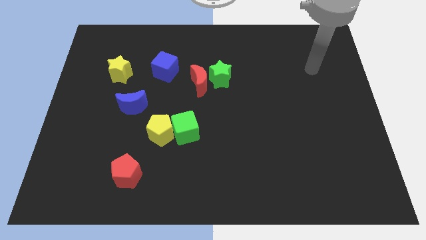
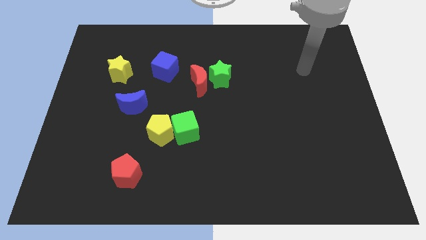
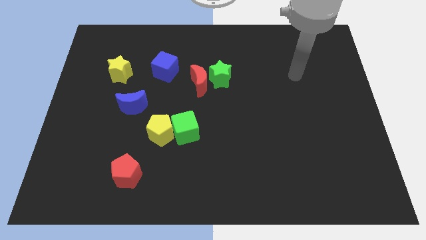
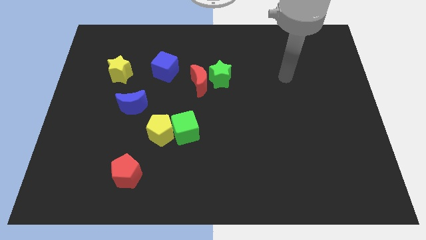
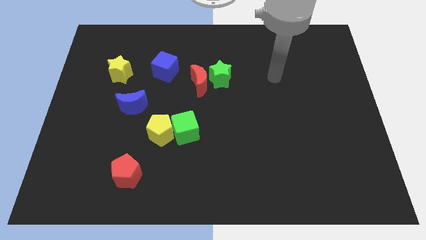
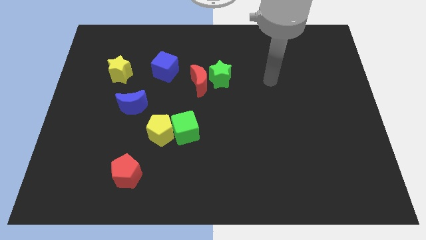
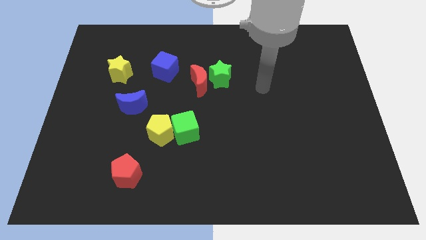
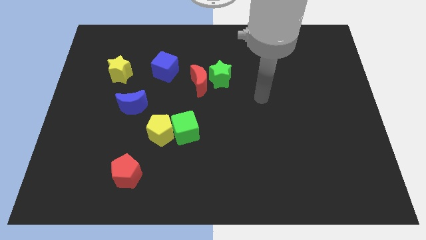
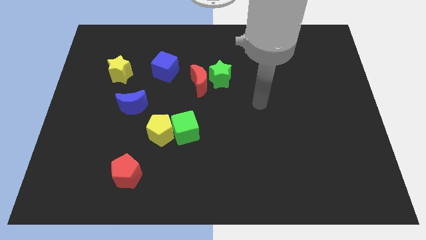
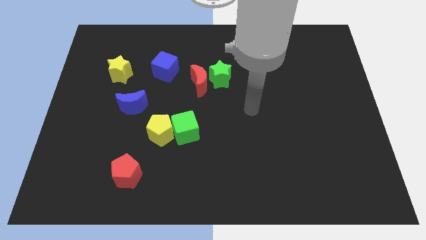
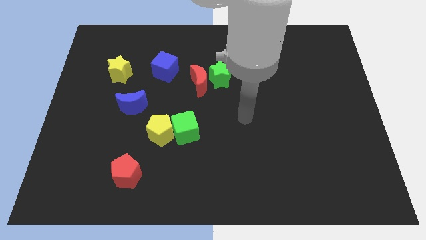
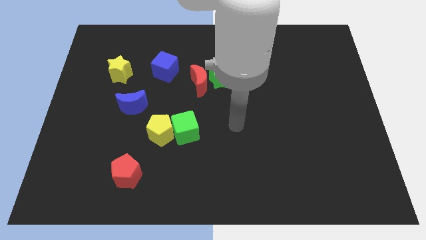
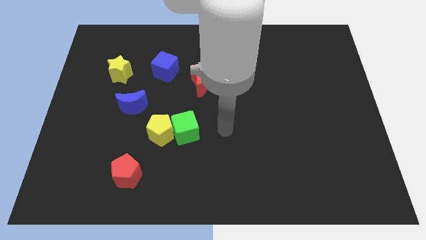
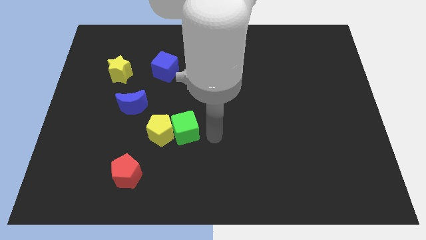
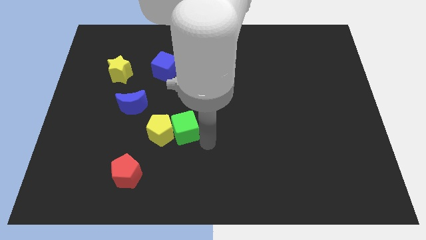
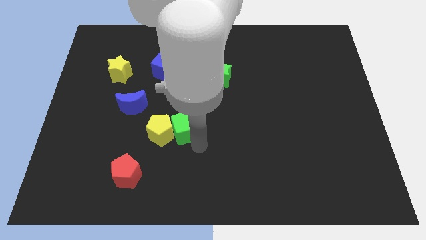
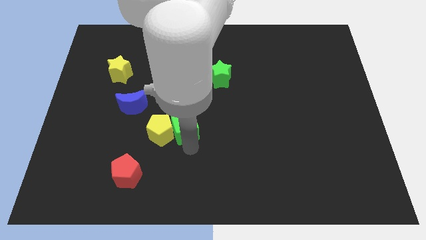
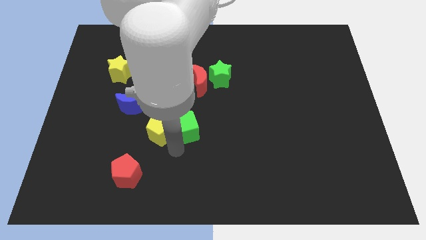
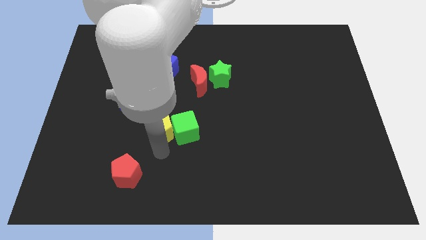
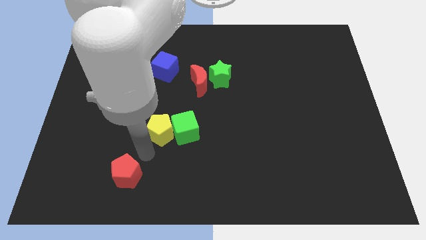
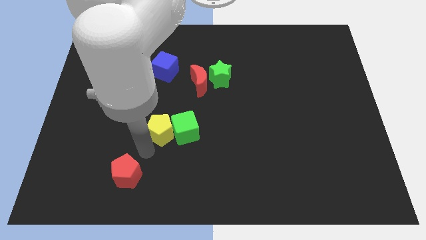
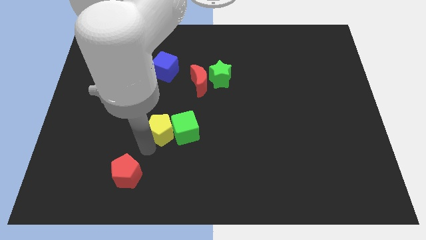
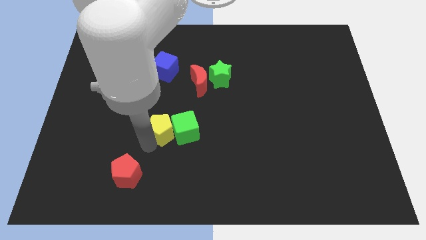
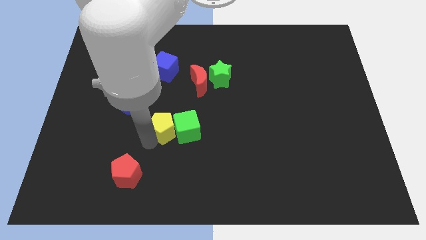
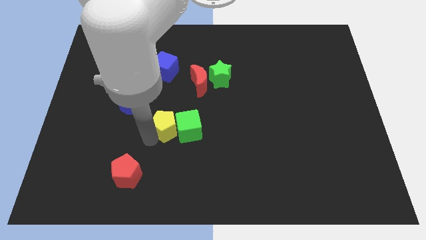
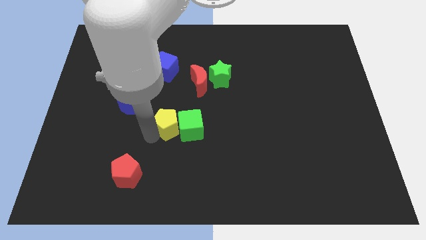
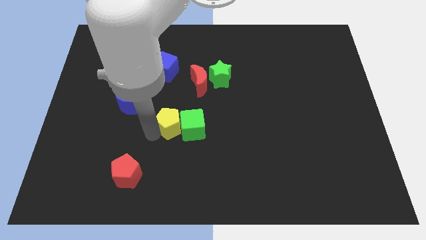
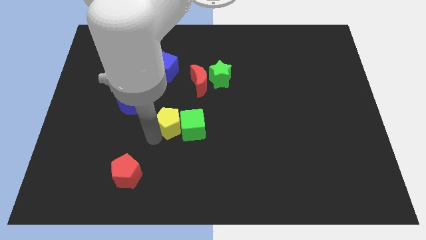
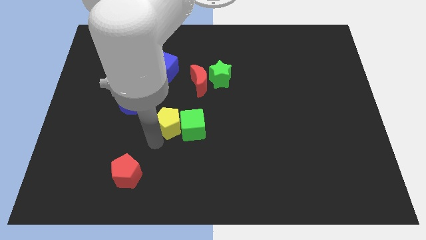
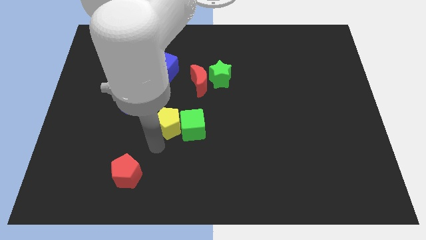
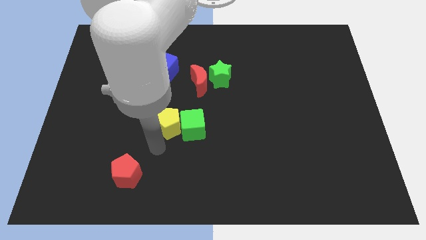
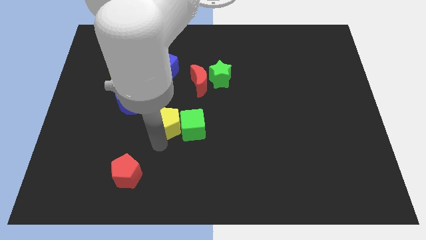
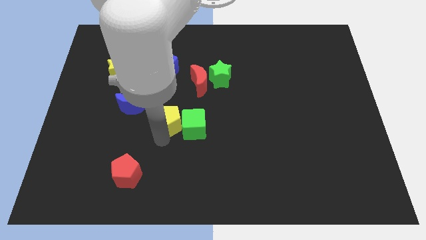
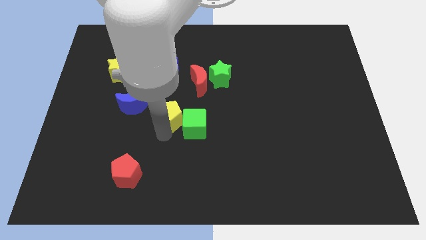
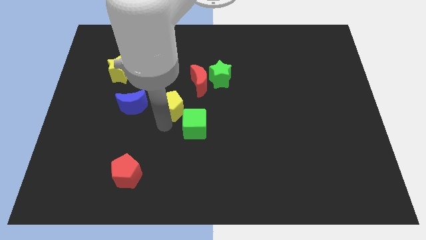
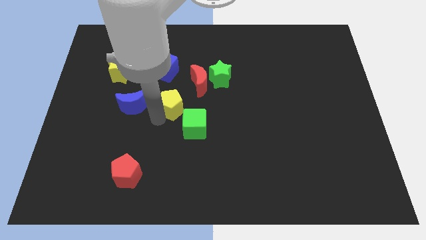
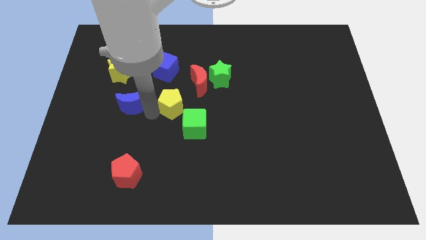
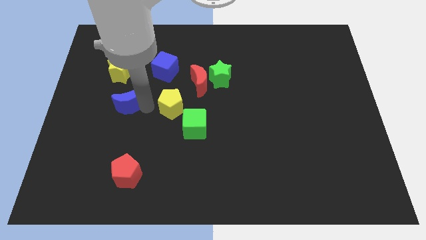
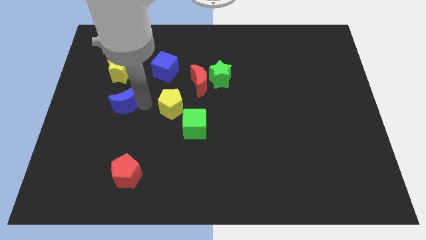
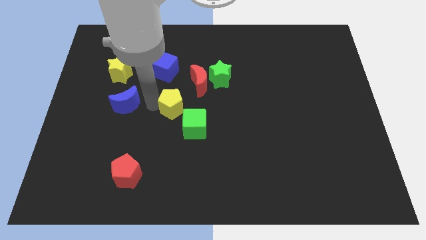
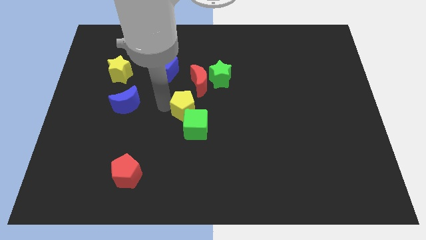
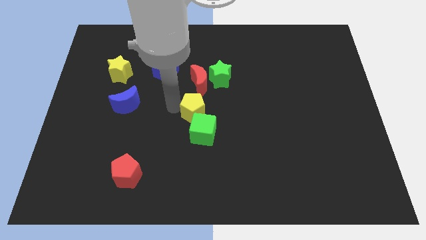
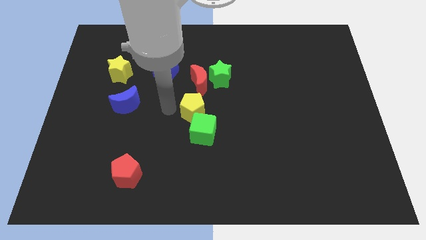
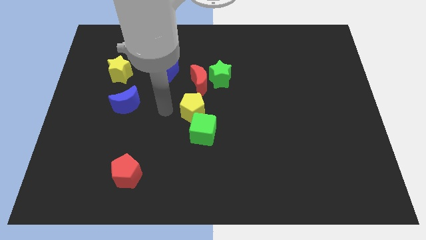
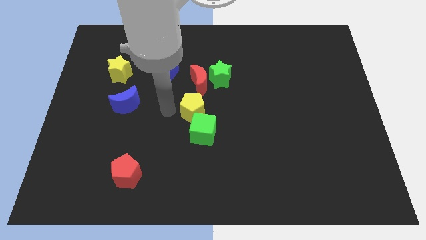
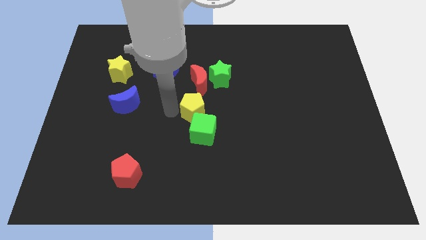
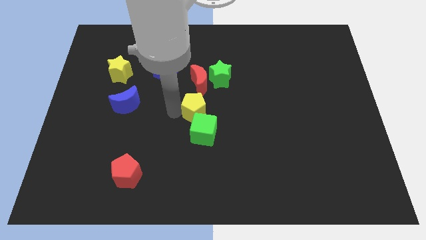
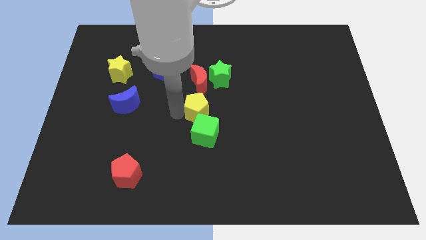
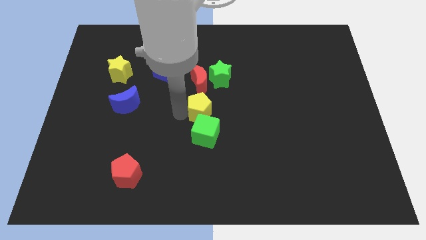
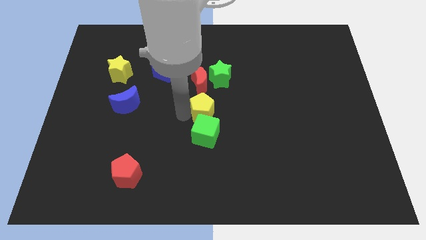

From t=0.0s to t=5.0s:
put the yellow pentagon to the bottom of the green star

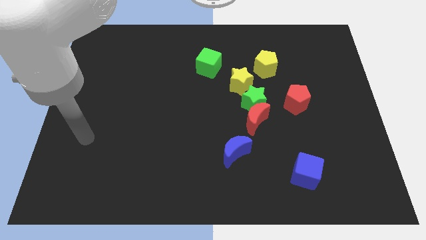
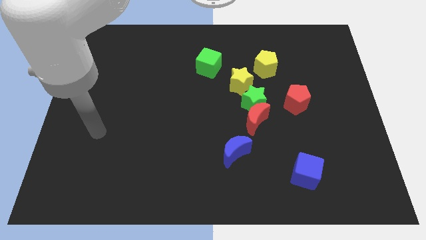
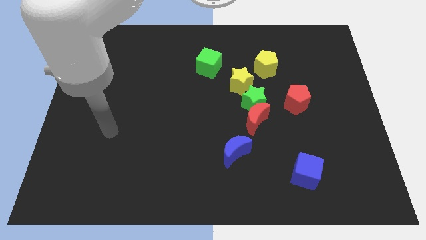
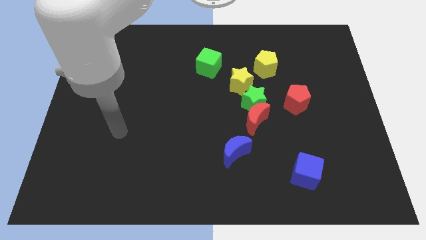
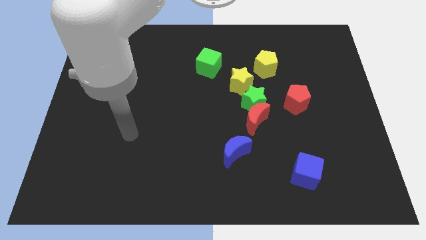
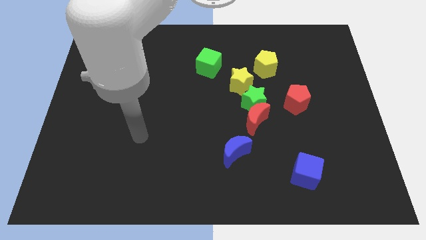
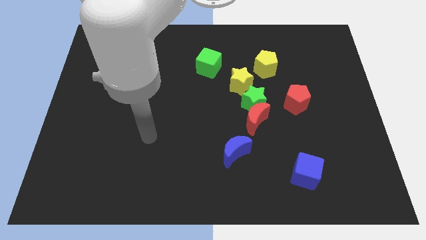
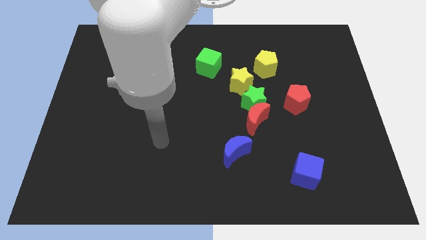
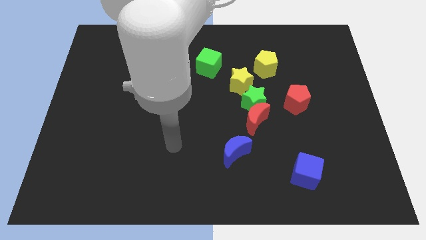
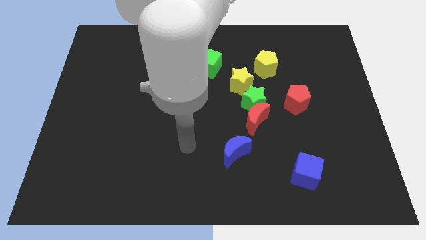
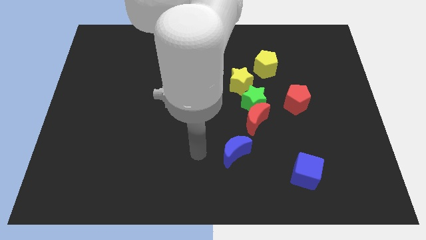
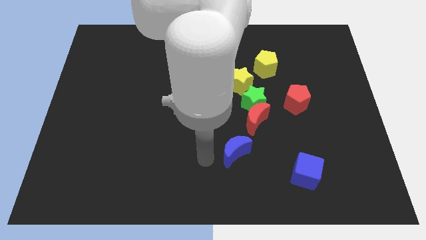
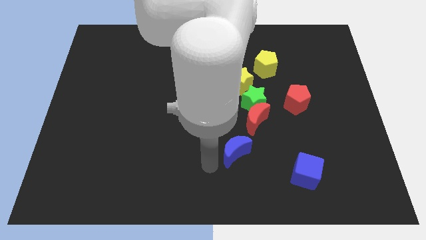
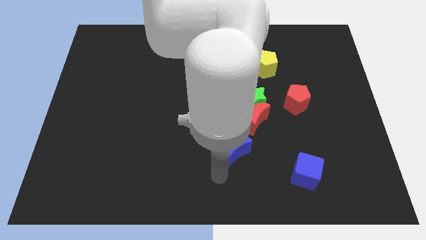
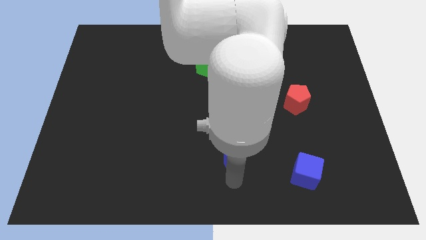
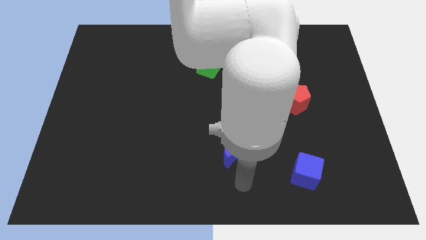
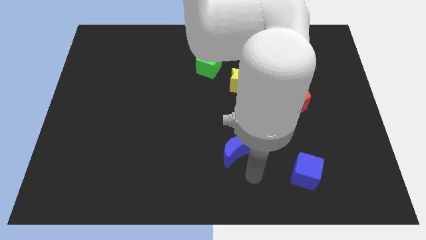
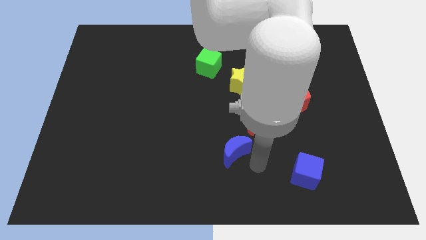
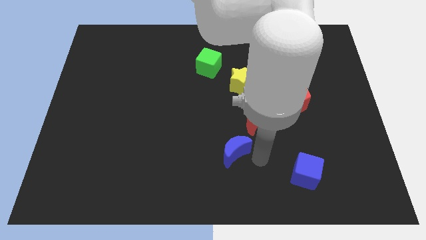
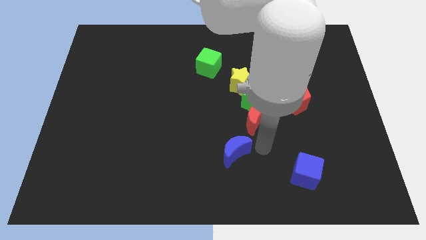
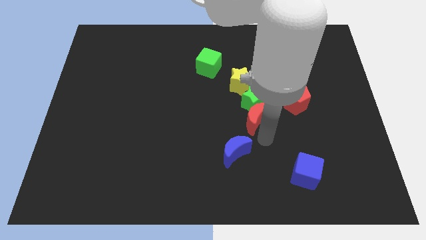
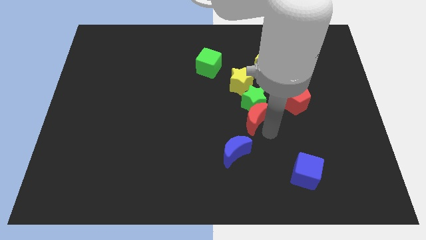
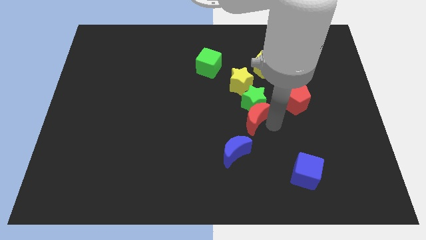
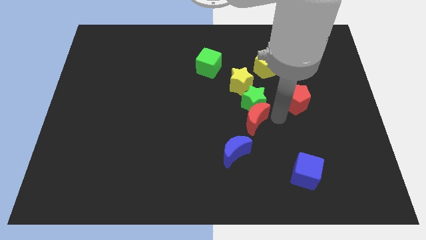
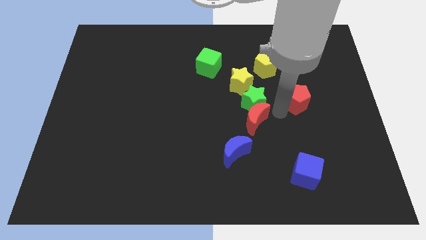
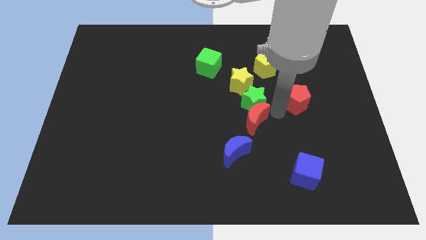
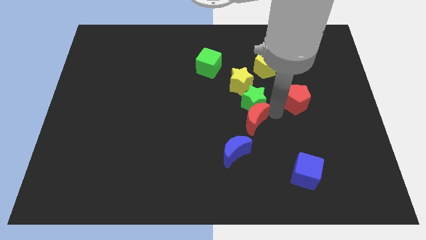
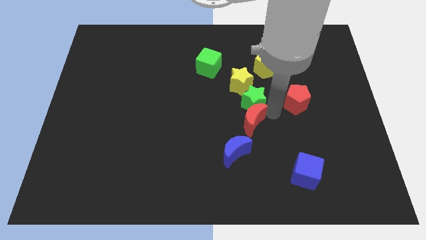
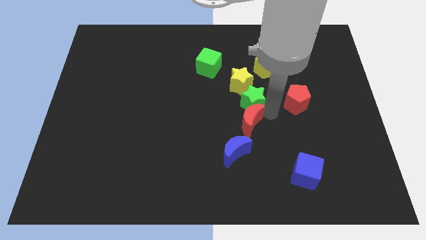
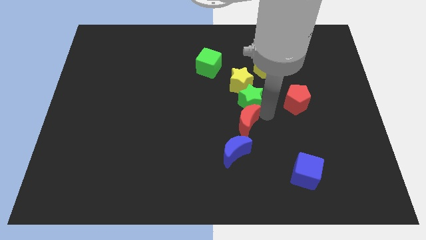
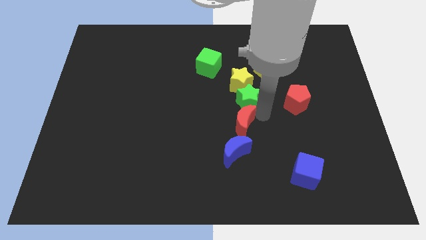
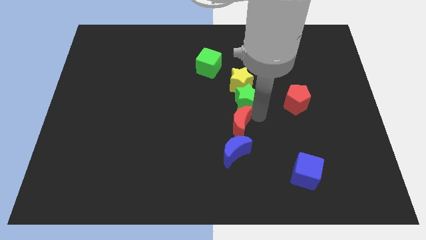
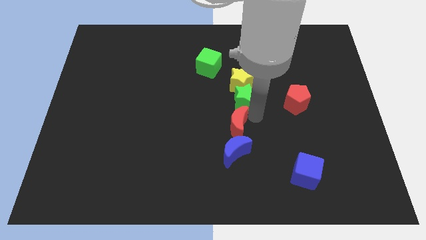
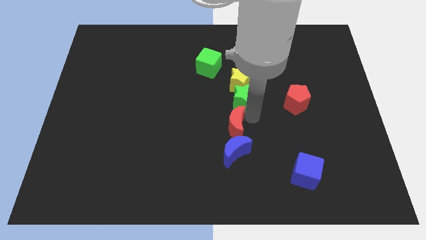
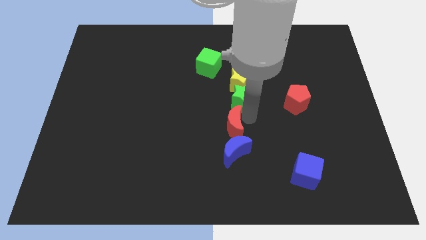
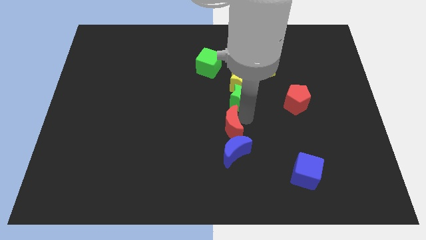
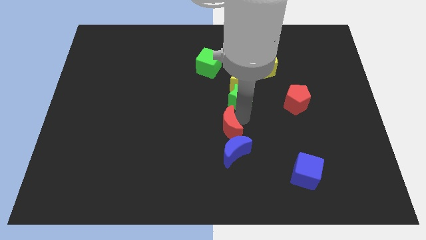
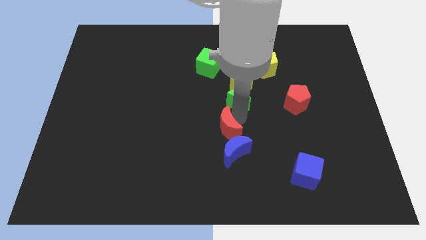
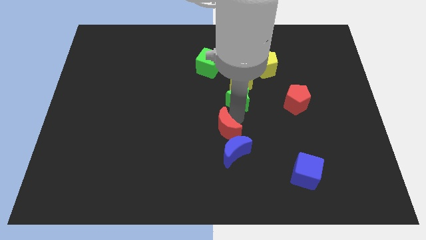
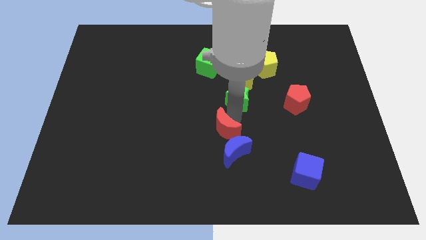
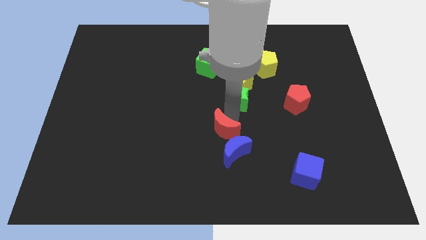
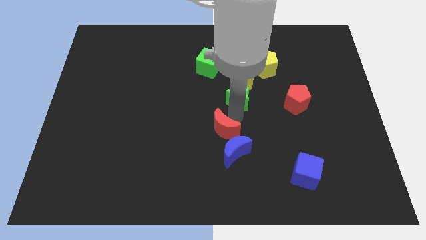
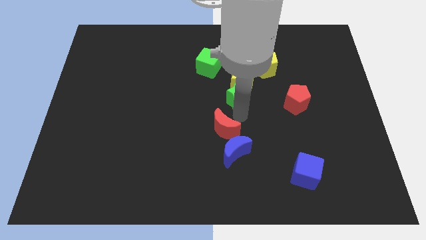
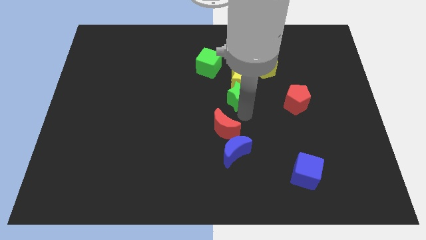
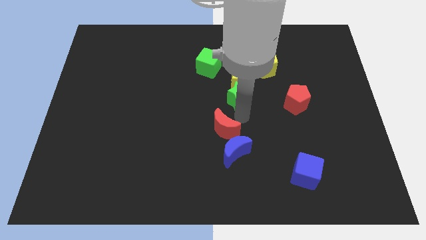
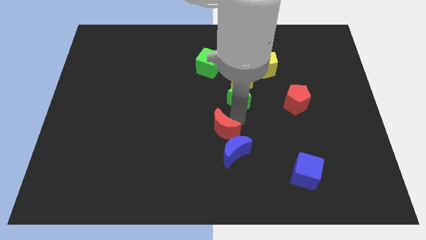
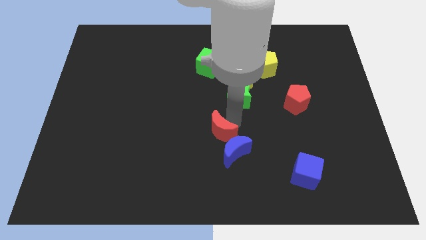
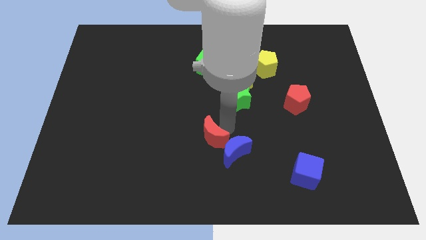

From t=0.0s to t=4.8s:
put the red moon to the left of the blue moon
